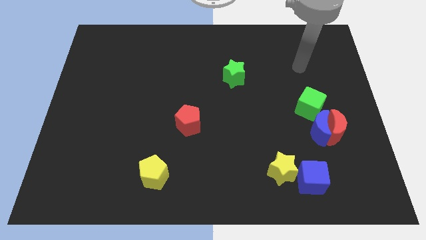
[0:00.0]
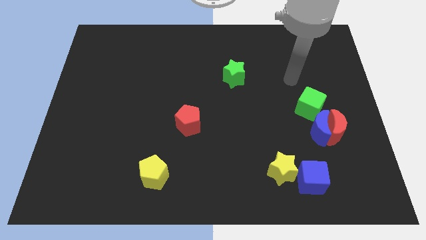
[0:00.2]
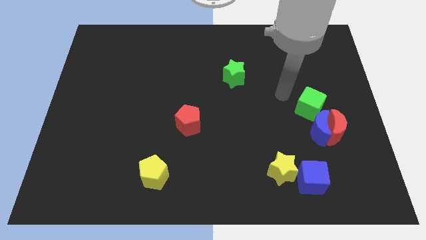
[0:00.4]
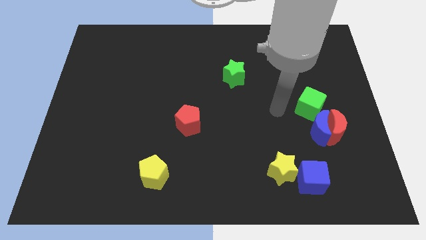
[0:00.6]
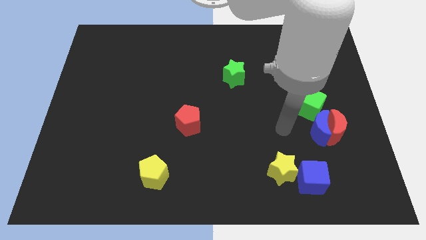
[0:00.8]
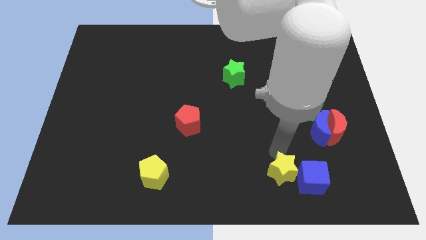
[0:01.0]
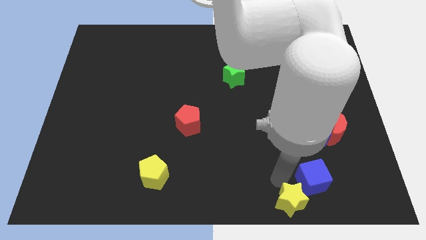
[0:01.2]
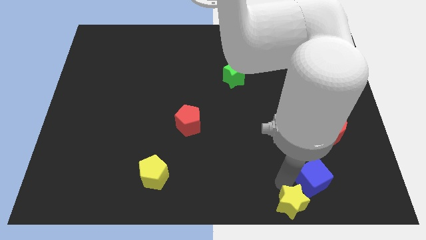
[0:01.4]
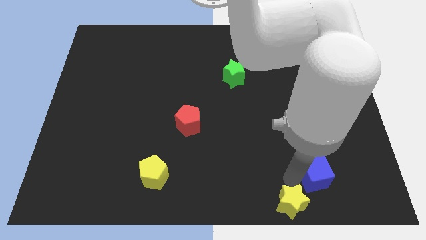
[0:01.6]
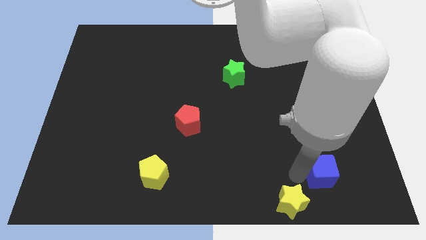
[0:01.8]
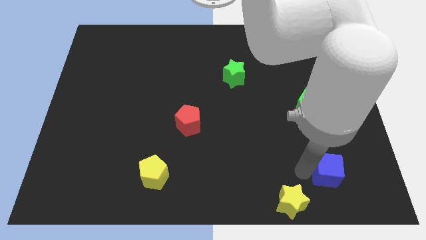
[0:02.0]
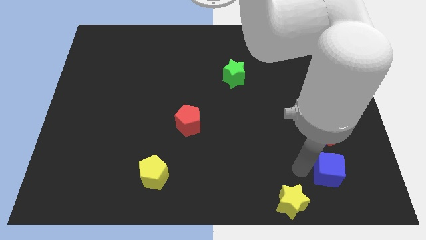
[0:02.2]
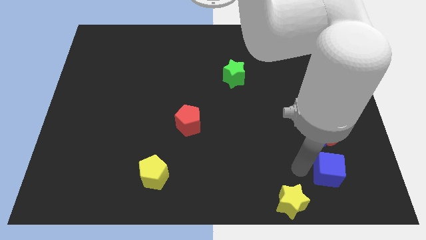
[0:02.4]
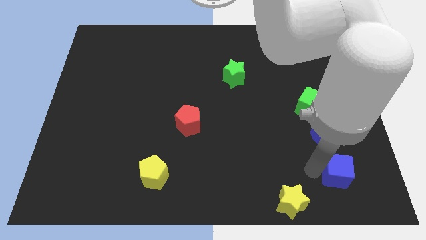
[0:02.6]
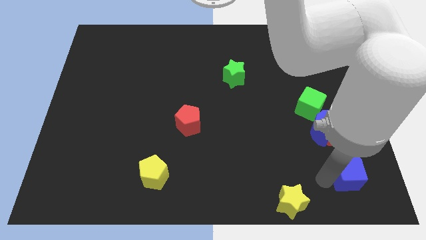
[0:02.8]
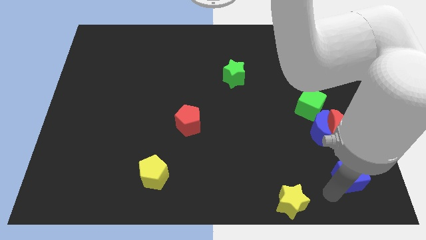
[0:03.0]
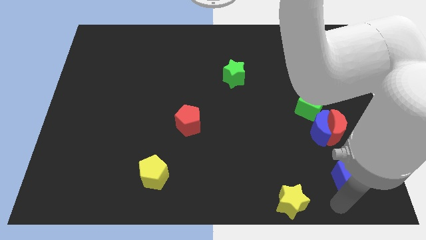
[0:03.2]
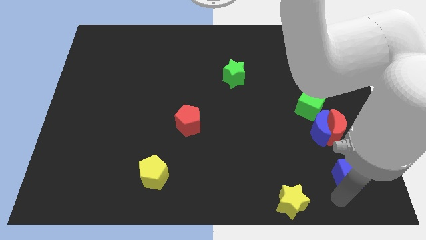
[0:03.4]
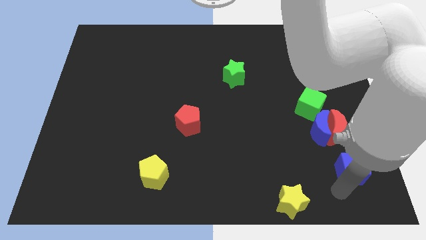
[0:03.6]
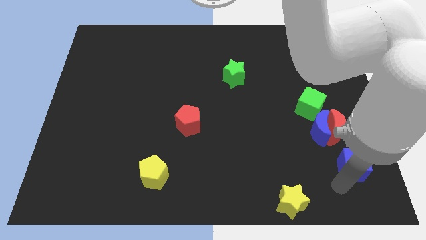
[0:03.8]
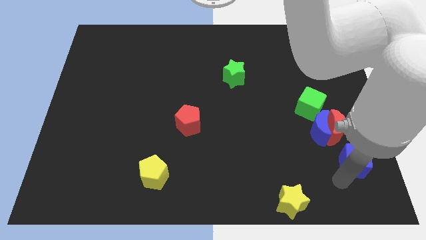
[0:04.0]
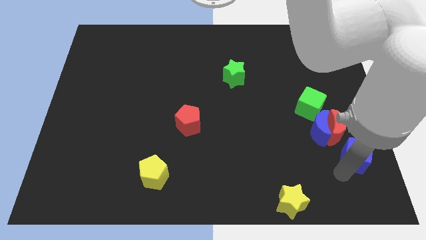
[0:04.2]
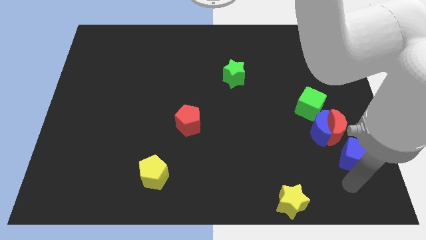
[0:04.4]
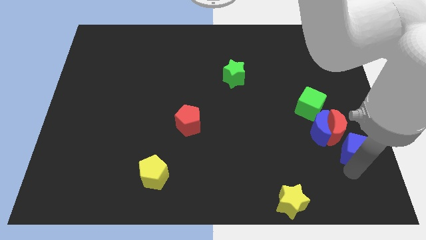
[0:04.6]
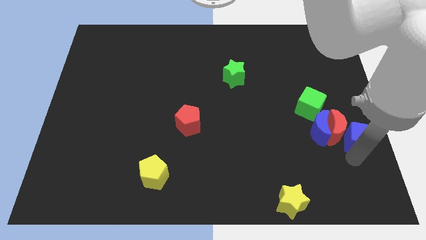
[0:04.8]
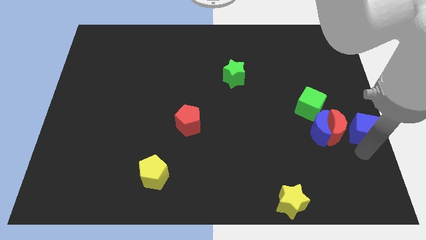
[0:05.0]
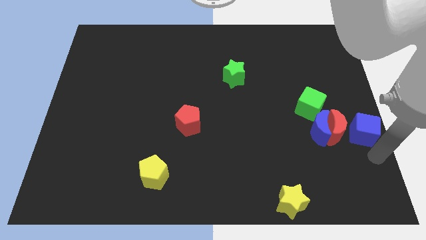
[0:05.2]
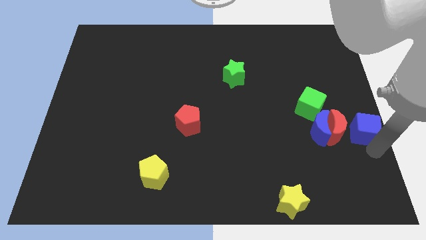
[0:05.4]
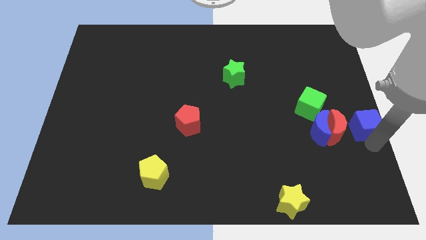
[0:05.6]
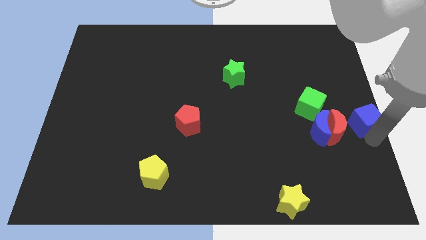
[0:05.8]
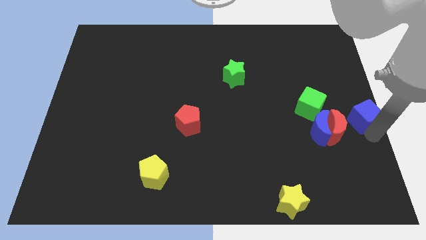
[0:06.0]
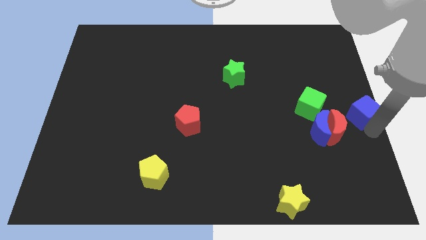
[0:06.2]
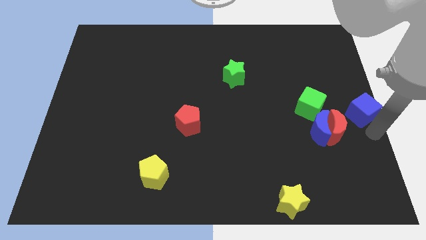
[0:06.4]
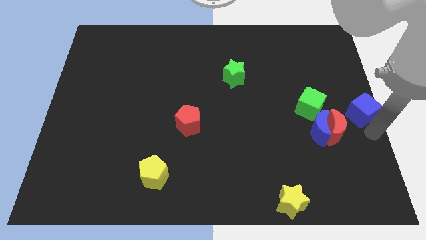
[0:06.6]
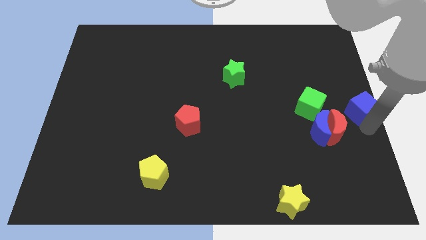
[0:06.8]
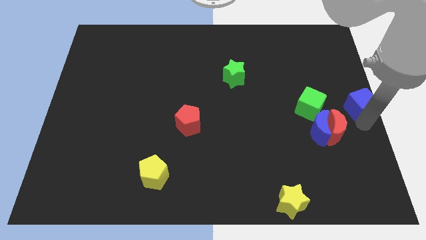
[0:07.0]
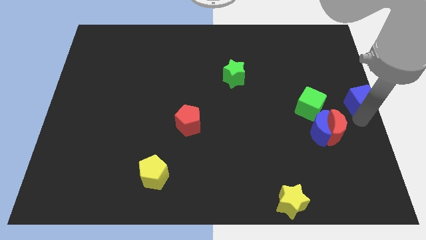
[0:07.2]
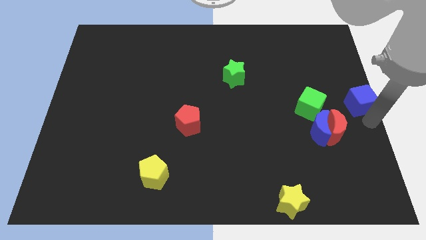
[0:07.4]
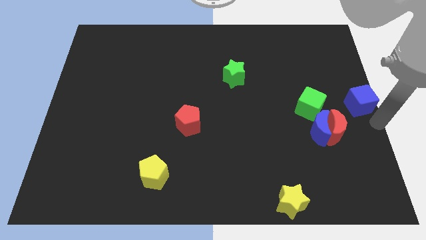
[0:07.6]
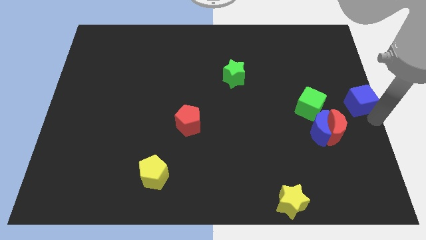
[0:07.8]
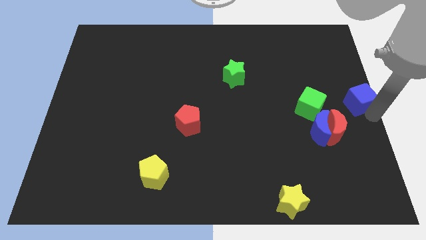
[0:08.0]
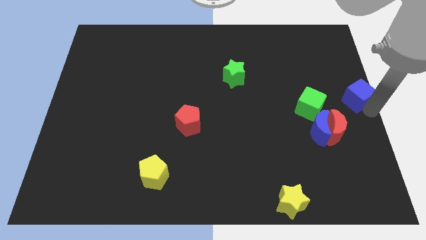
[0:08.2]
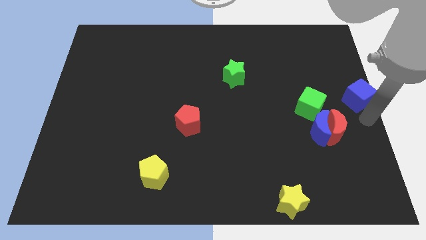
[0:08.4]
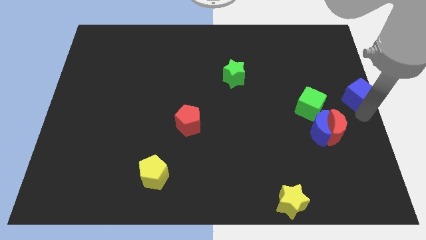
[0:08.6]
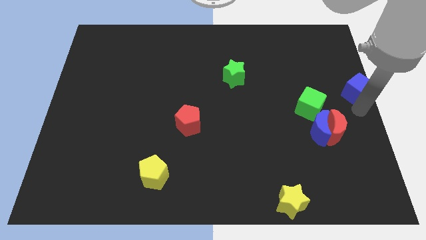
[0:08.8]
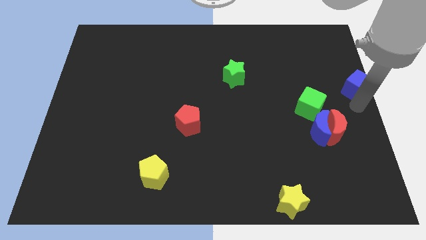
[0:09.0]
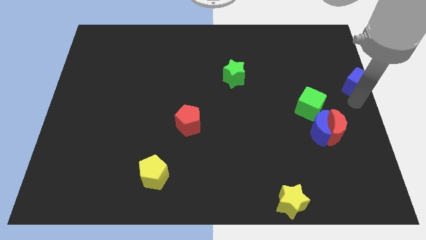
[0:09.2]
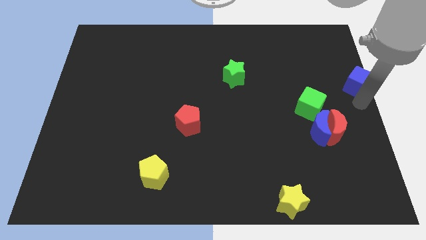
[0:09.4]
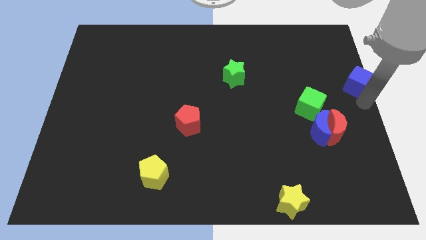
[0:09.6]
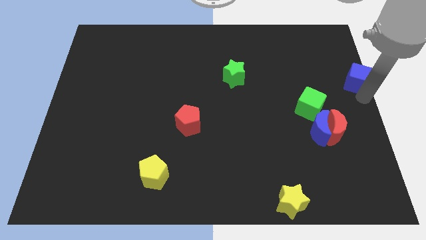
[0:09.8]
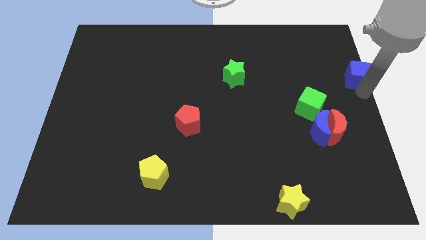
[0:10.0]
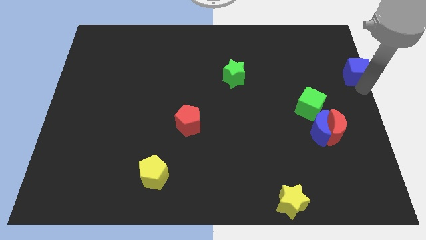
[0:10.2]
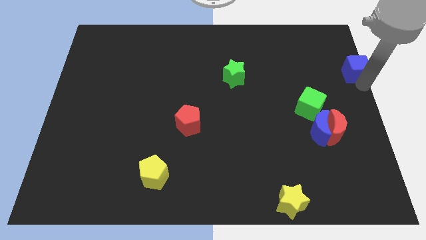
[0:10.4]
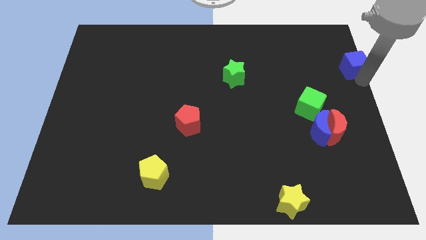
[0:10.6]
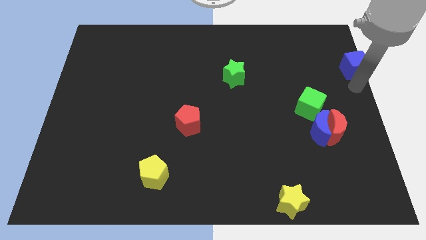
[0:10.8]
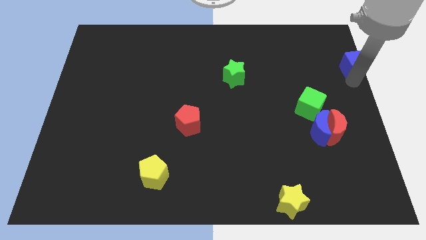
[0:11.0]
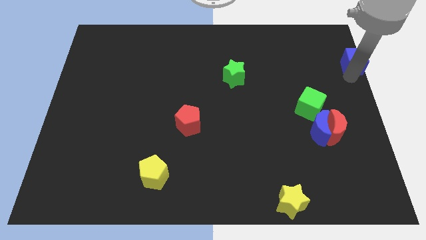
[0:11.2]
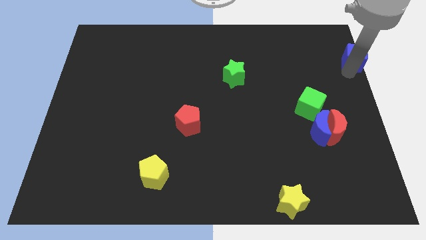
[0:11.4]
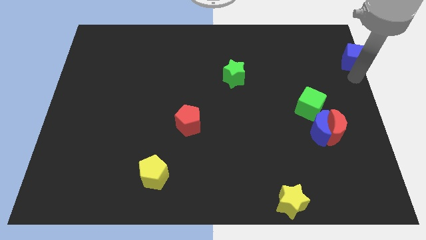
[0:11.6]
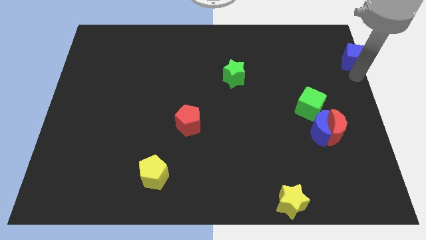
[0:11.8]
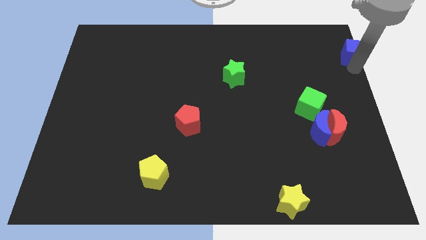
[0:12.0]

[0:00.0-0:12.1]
move the blue cube to the top right

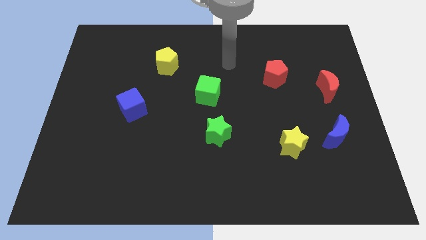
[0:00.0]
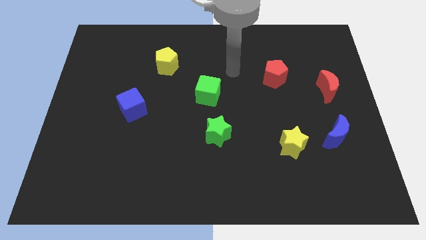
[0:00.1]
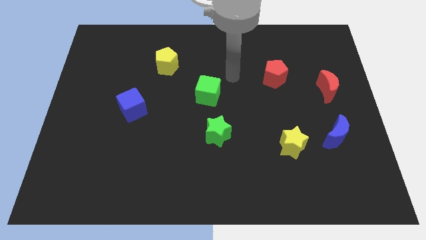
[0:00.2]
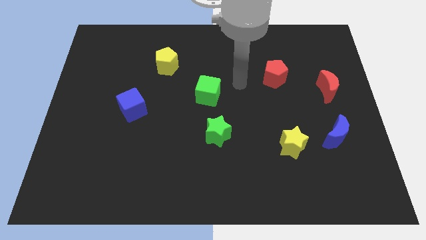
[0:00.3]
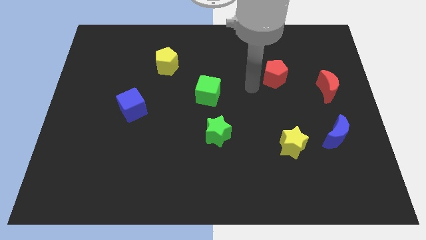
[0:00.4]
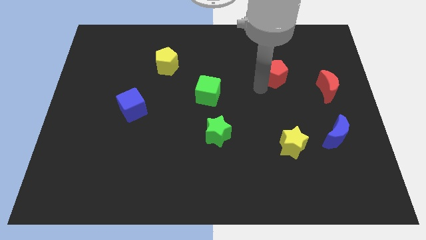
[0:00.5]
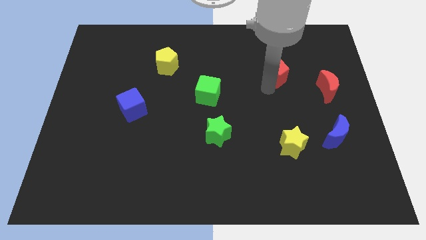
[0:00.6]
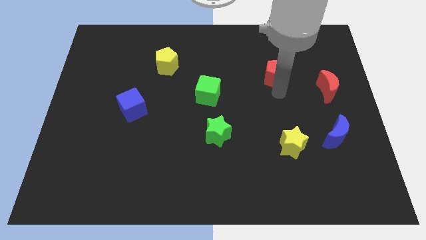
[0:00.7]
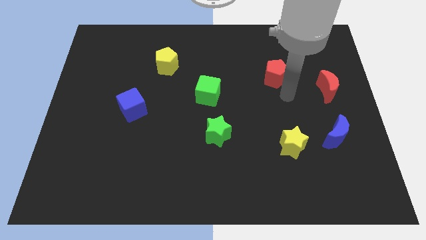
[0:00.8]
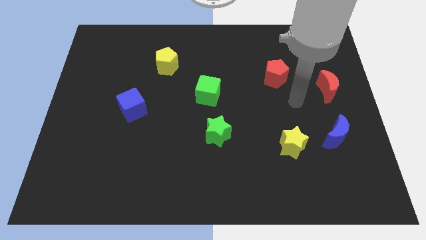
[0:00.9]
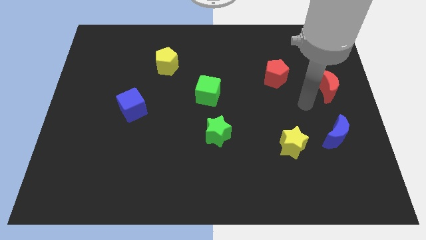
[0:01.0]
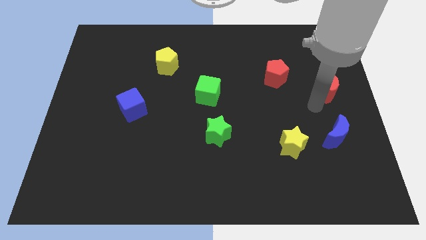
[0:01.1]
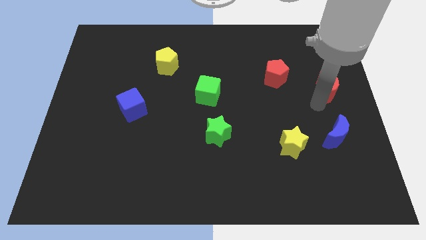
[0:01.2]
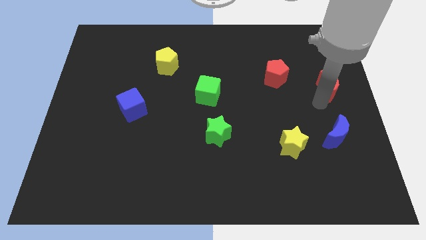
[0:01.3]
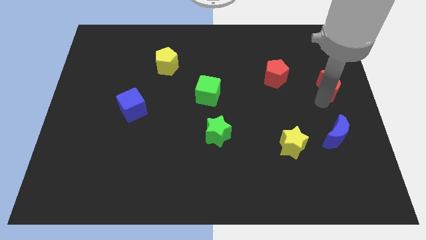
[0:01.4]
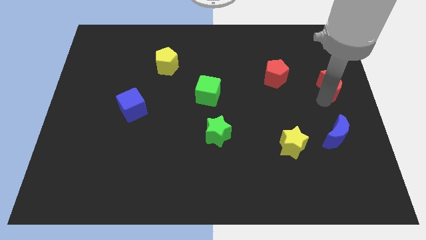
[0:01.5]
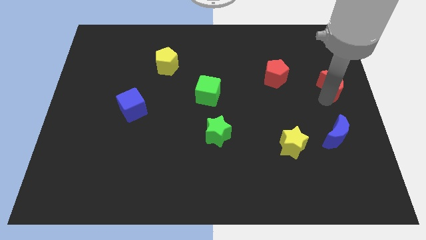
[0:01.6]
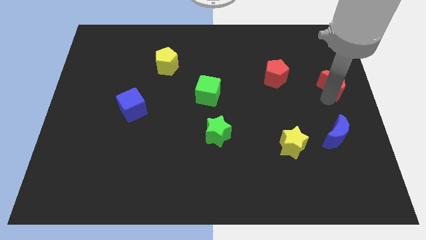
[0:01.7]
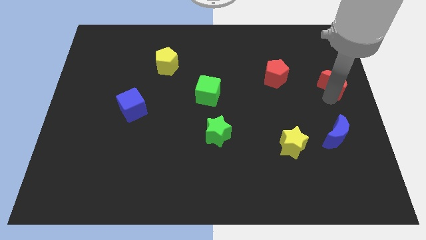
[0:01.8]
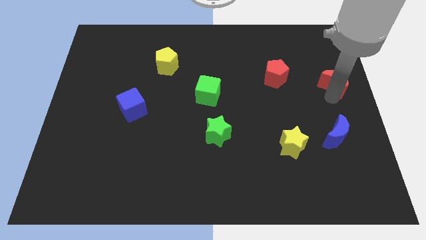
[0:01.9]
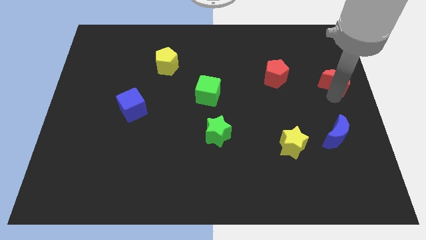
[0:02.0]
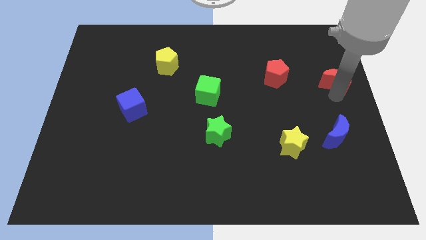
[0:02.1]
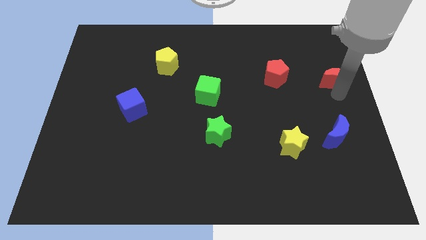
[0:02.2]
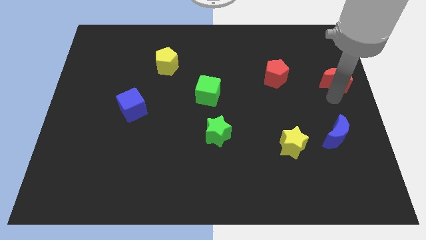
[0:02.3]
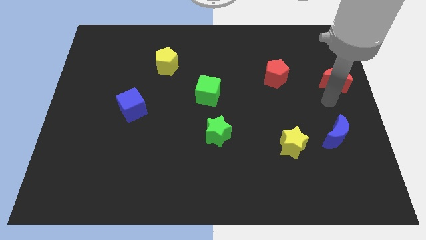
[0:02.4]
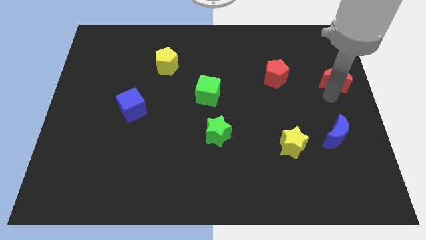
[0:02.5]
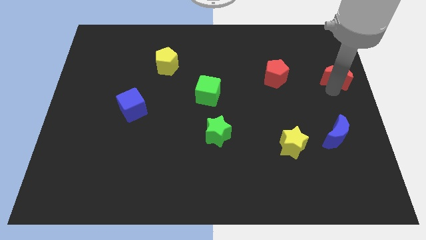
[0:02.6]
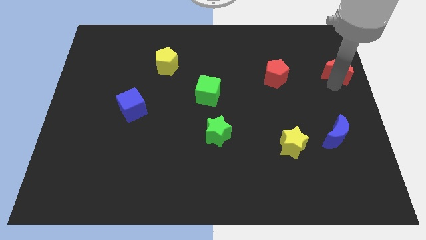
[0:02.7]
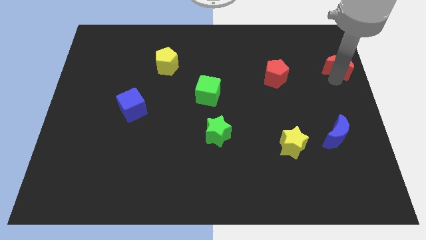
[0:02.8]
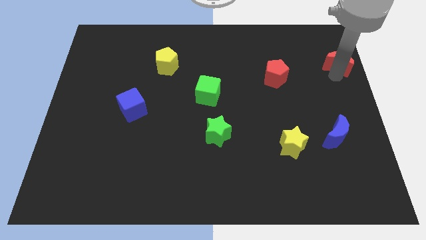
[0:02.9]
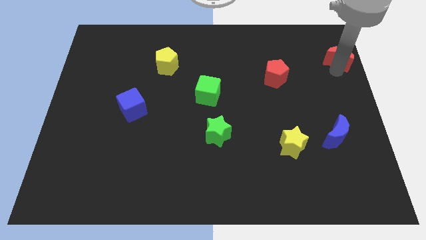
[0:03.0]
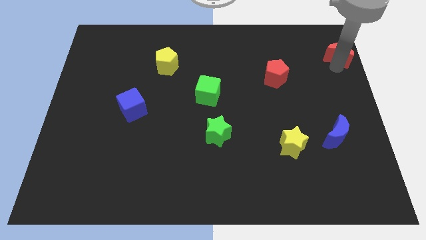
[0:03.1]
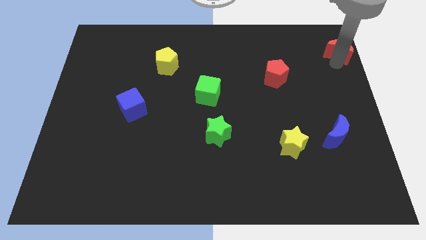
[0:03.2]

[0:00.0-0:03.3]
put the red moon to the top right of the board
